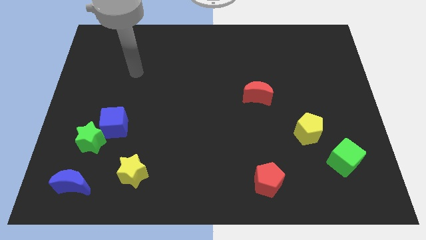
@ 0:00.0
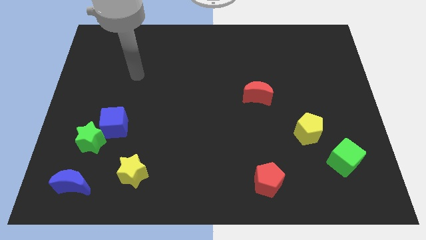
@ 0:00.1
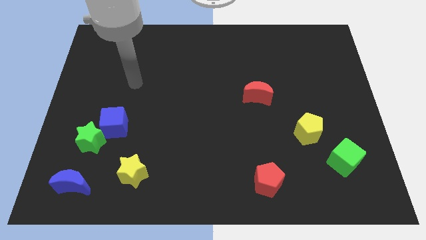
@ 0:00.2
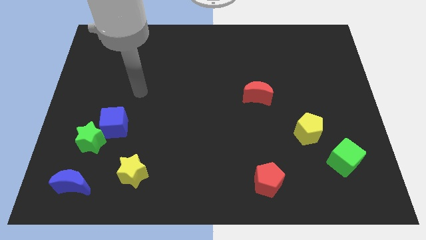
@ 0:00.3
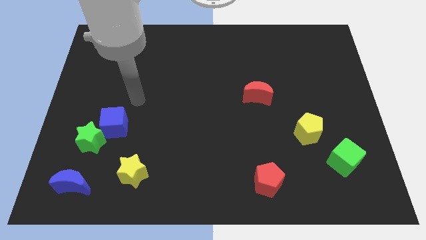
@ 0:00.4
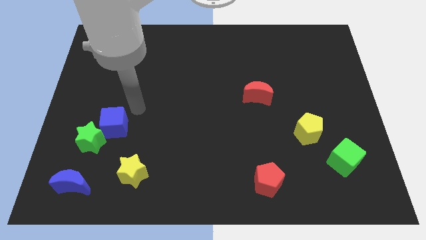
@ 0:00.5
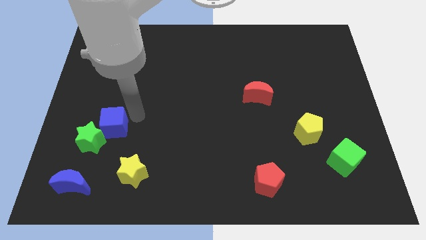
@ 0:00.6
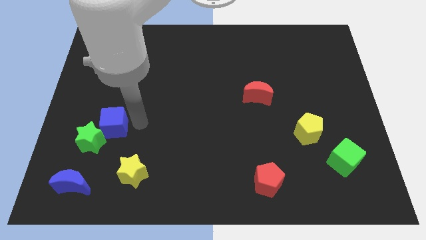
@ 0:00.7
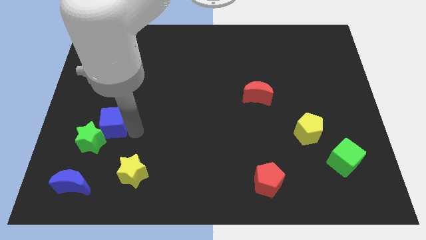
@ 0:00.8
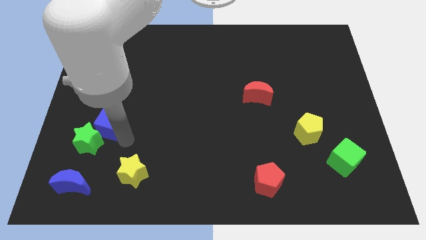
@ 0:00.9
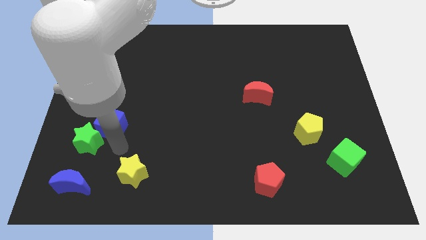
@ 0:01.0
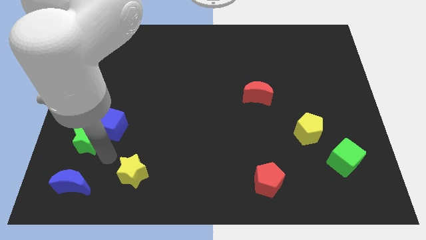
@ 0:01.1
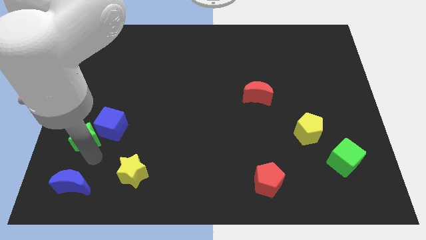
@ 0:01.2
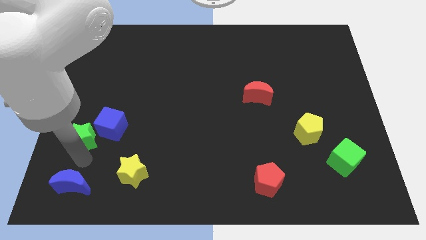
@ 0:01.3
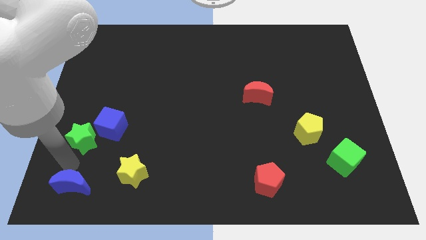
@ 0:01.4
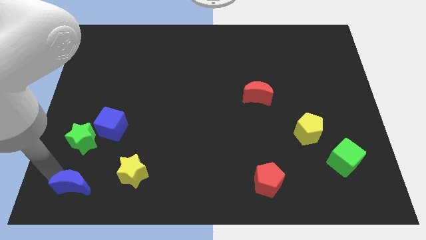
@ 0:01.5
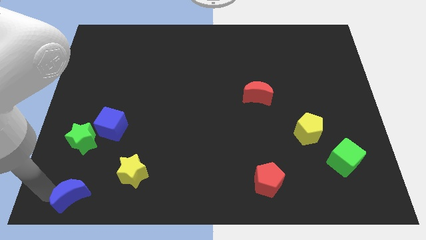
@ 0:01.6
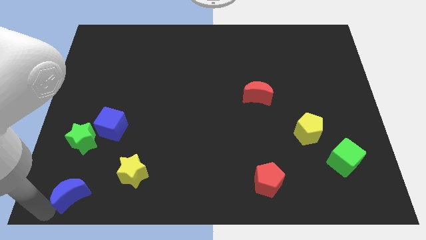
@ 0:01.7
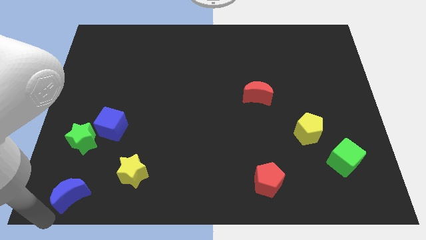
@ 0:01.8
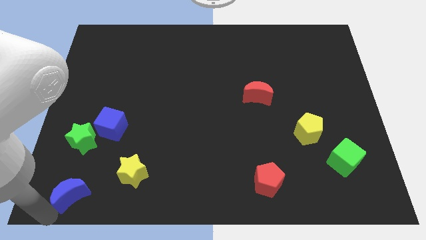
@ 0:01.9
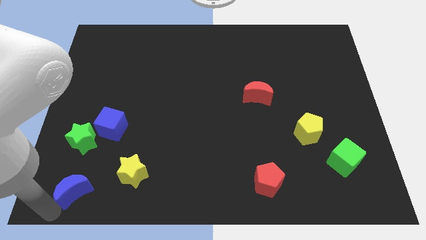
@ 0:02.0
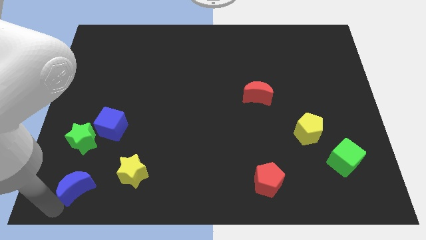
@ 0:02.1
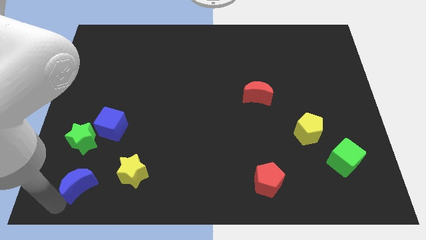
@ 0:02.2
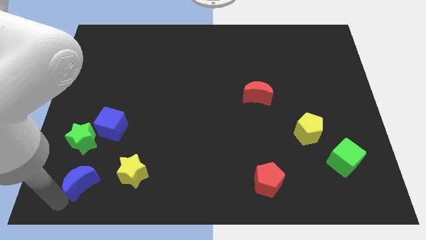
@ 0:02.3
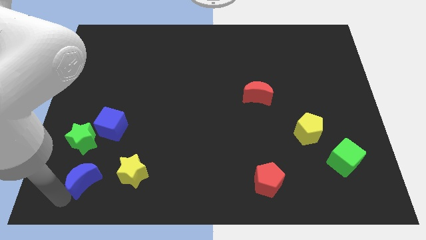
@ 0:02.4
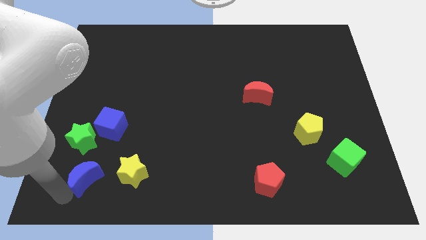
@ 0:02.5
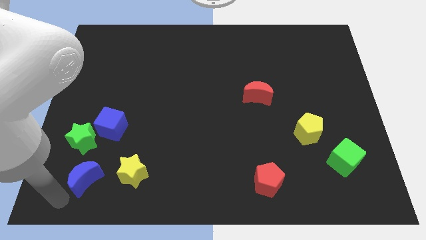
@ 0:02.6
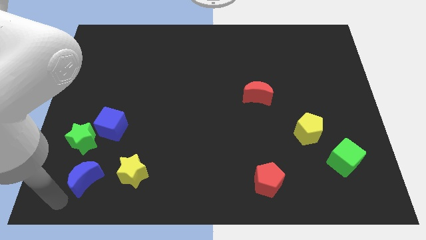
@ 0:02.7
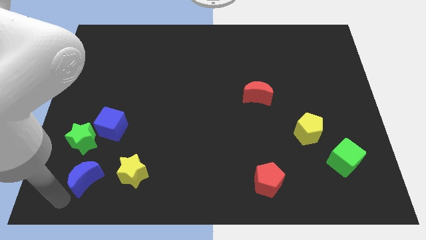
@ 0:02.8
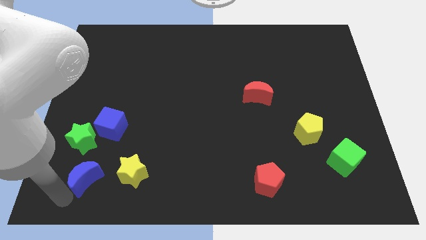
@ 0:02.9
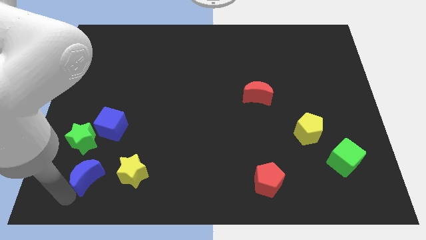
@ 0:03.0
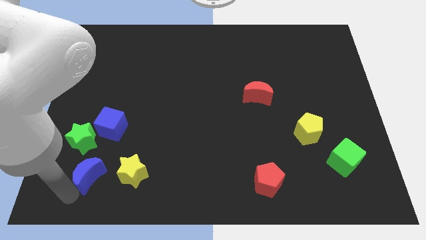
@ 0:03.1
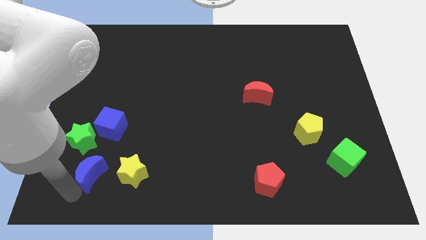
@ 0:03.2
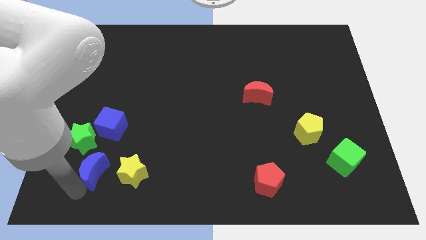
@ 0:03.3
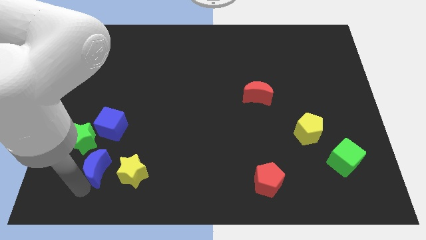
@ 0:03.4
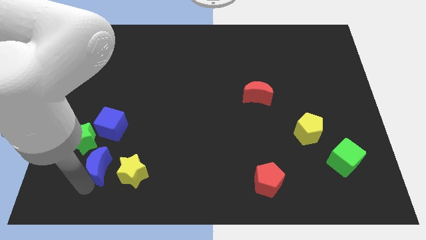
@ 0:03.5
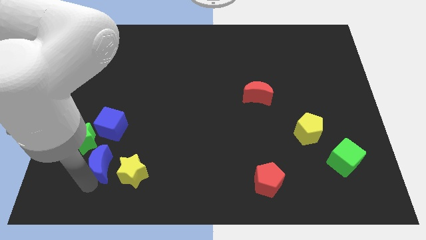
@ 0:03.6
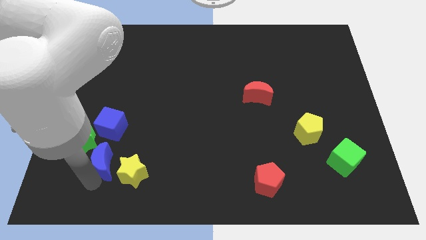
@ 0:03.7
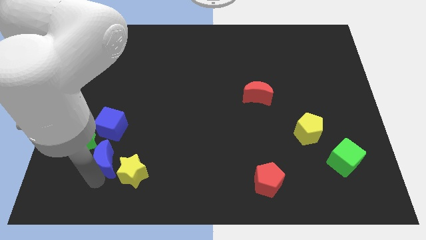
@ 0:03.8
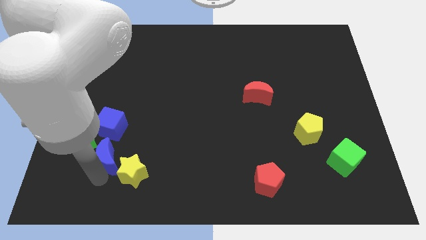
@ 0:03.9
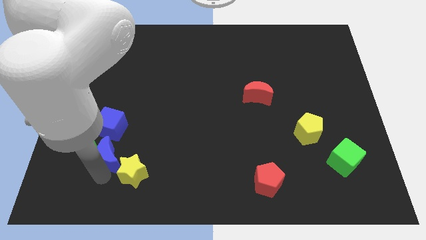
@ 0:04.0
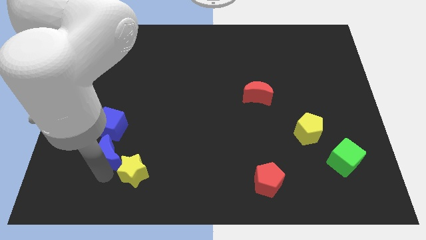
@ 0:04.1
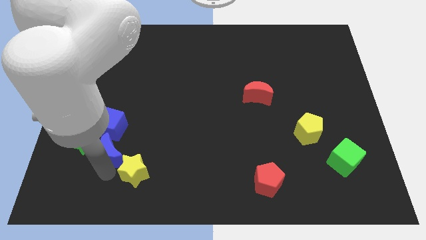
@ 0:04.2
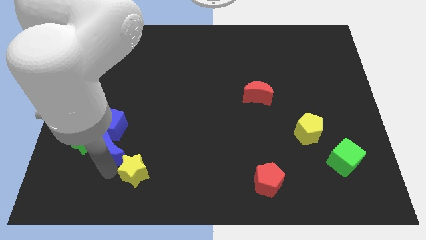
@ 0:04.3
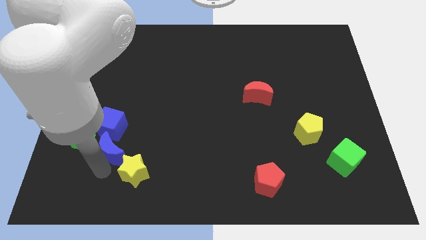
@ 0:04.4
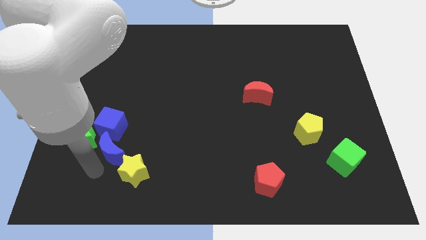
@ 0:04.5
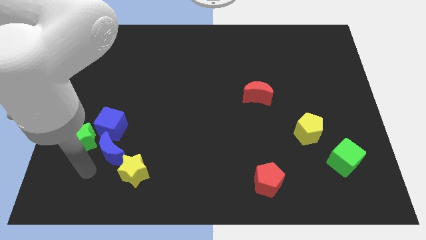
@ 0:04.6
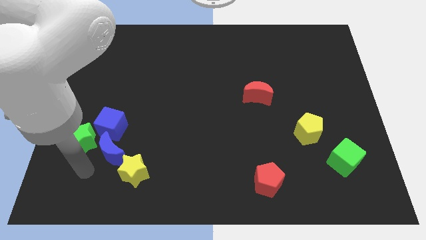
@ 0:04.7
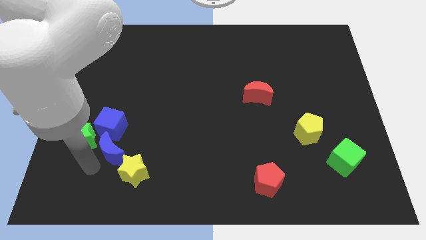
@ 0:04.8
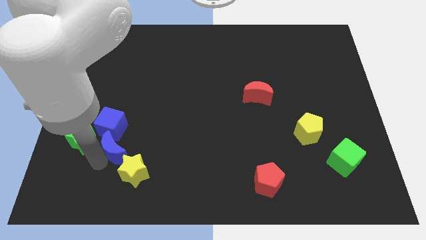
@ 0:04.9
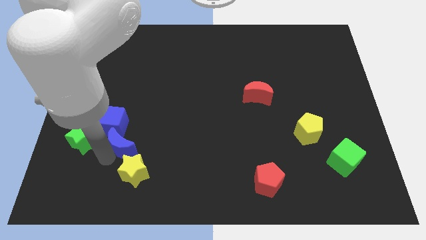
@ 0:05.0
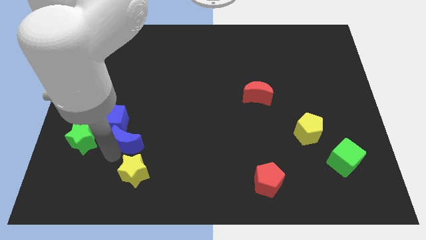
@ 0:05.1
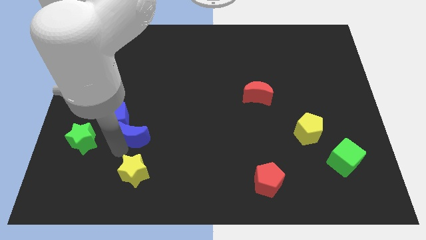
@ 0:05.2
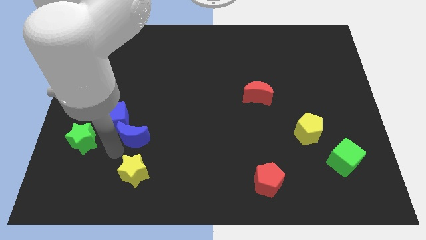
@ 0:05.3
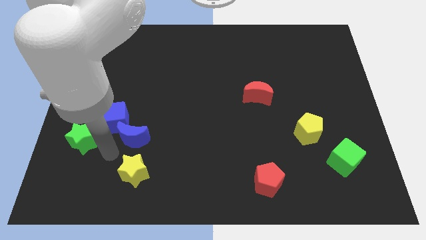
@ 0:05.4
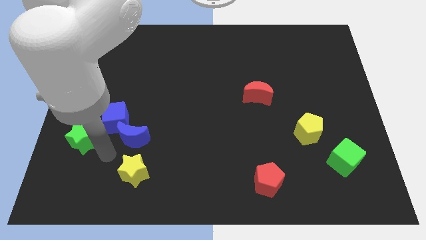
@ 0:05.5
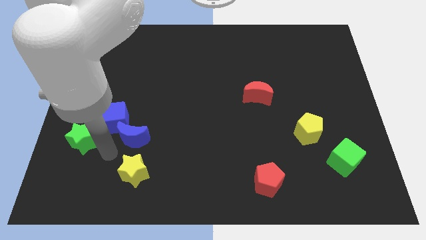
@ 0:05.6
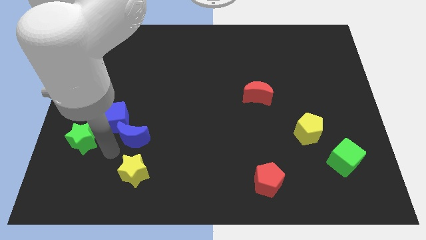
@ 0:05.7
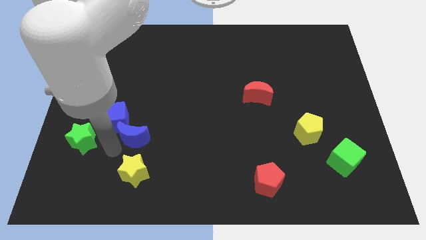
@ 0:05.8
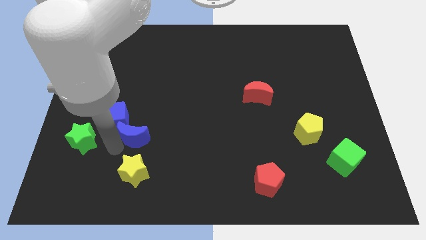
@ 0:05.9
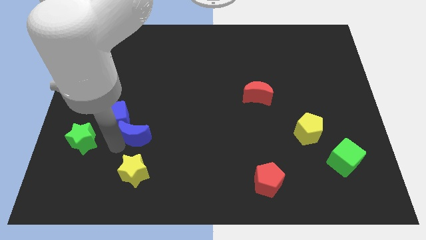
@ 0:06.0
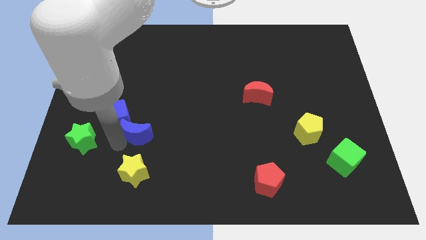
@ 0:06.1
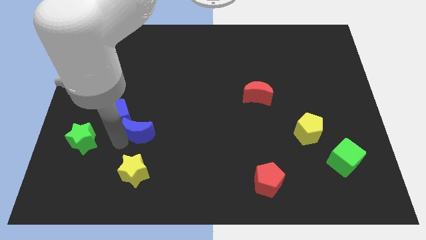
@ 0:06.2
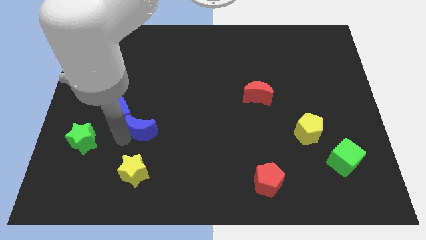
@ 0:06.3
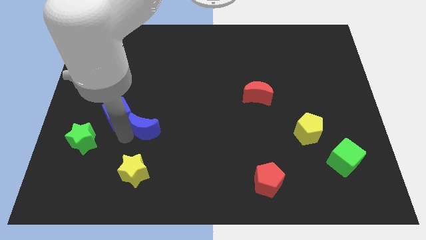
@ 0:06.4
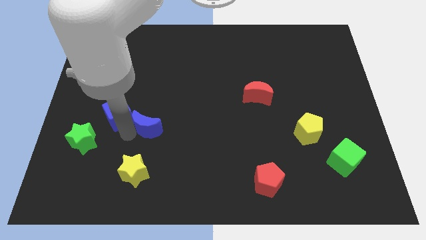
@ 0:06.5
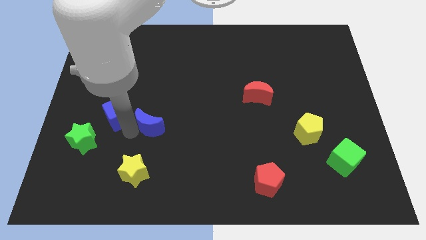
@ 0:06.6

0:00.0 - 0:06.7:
slide the blue moon up and right diagonally

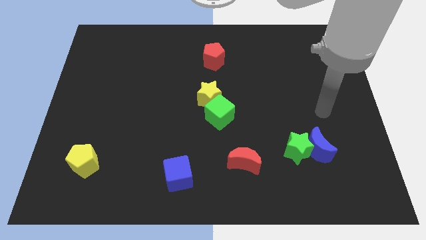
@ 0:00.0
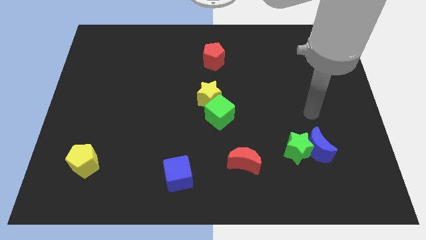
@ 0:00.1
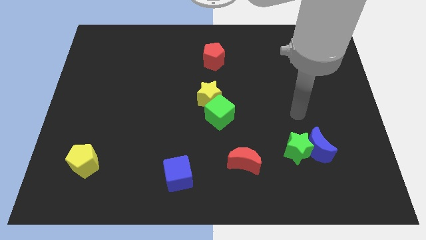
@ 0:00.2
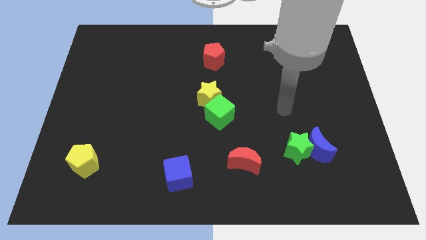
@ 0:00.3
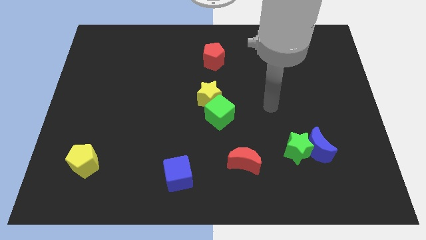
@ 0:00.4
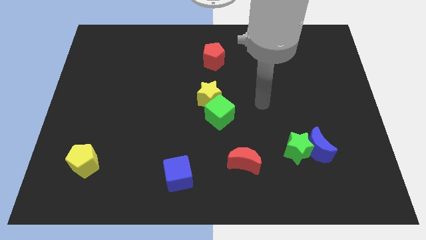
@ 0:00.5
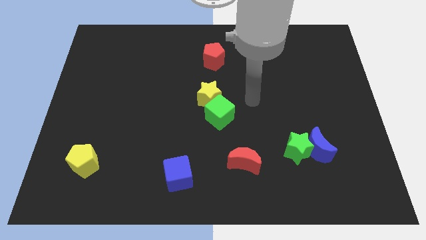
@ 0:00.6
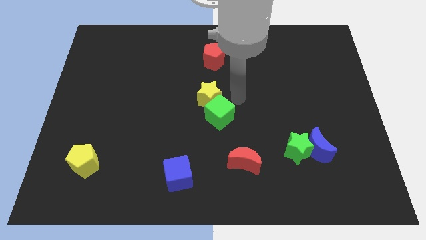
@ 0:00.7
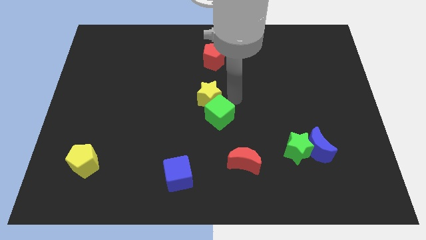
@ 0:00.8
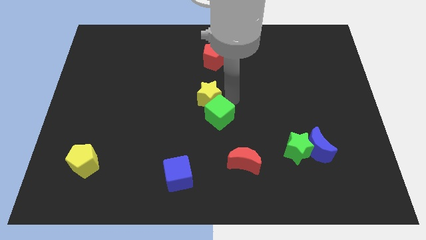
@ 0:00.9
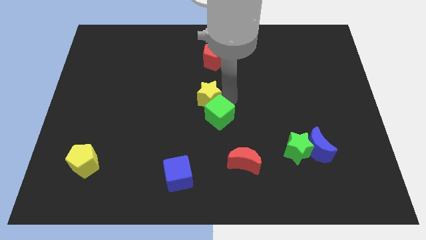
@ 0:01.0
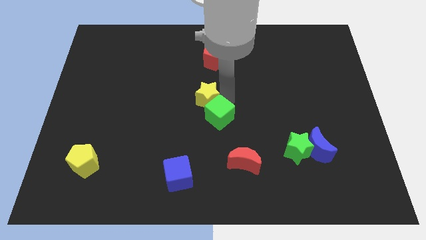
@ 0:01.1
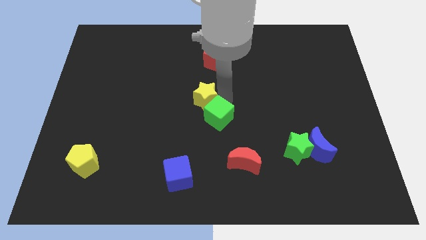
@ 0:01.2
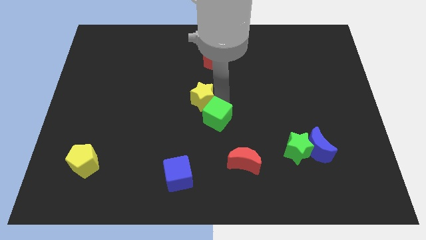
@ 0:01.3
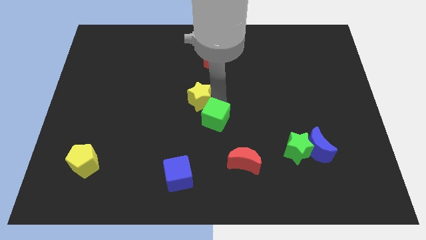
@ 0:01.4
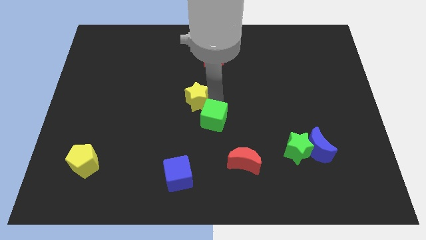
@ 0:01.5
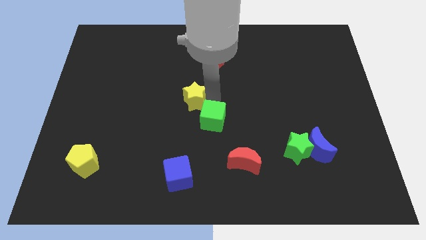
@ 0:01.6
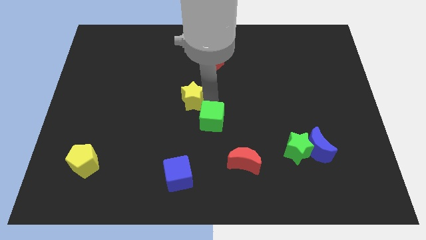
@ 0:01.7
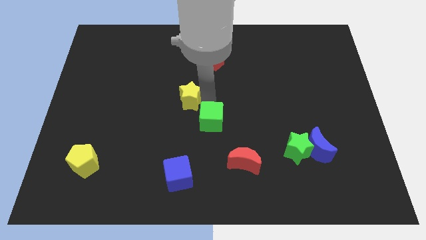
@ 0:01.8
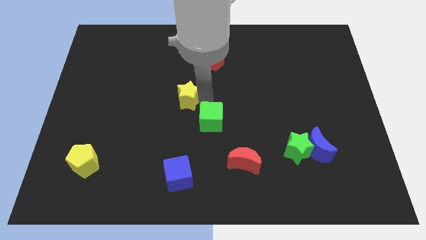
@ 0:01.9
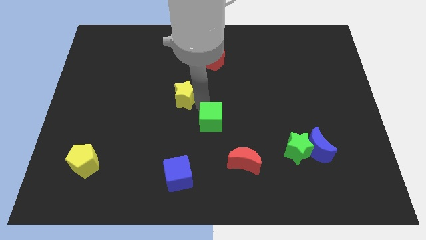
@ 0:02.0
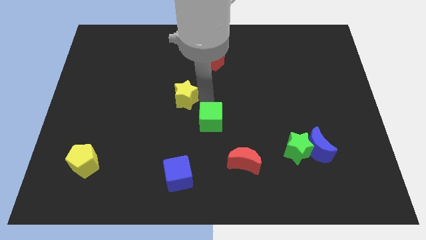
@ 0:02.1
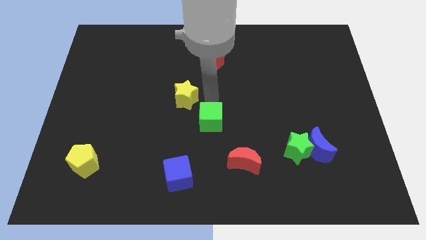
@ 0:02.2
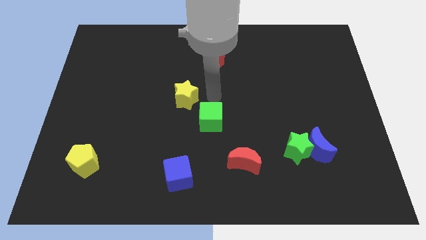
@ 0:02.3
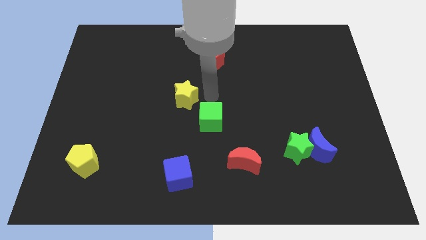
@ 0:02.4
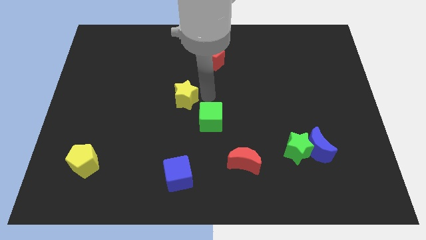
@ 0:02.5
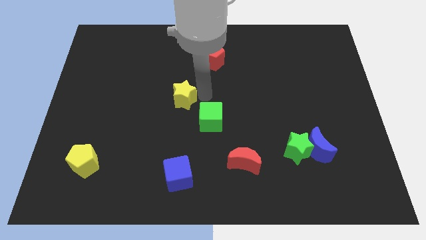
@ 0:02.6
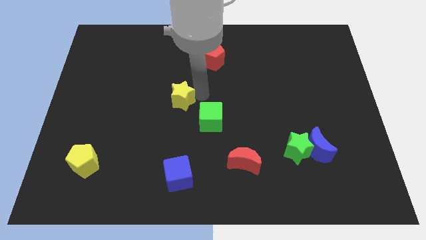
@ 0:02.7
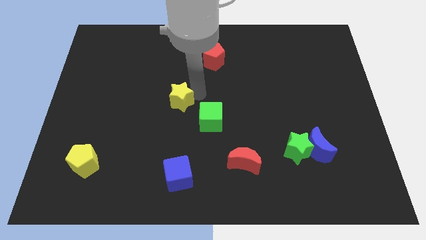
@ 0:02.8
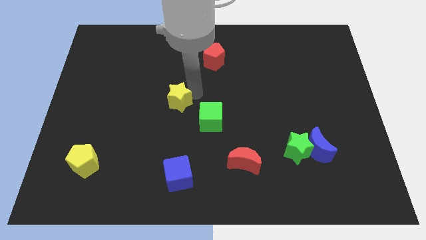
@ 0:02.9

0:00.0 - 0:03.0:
slightly move the yellow star left
